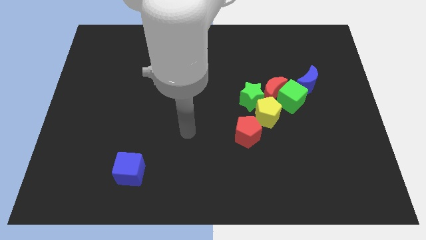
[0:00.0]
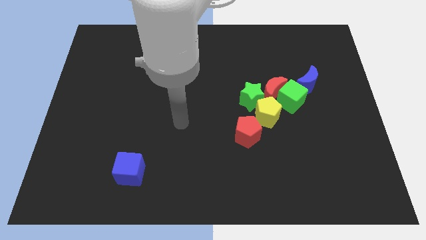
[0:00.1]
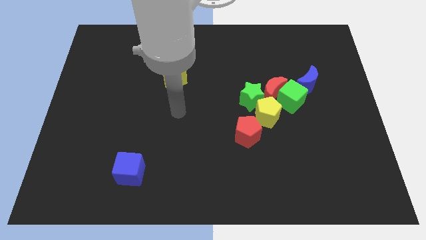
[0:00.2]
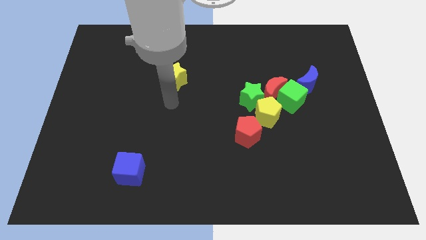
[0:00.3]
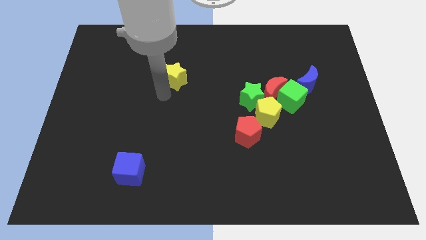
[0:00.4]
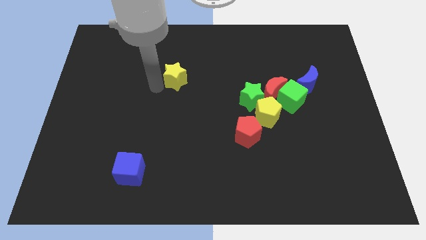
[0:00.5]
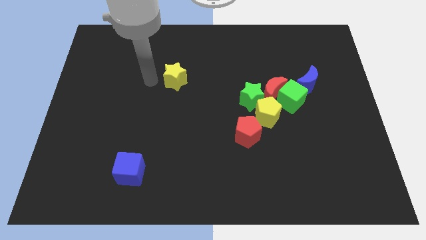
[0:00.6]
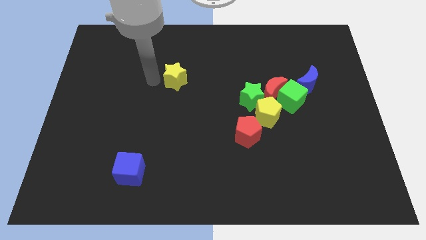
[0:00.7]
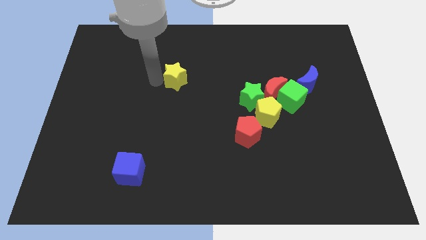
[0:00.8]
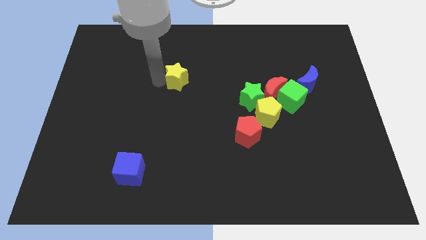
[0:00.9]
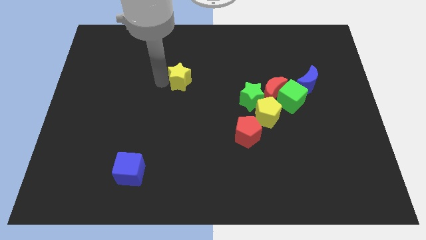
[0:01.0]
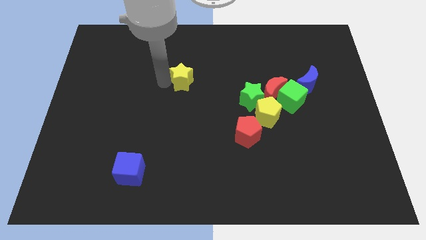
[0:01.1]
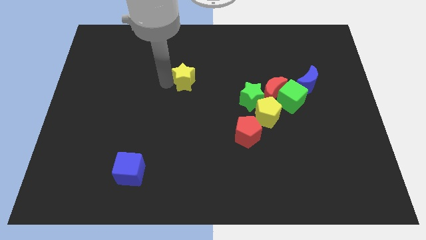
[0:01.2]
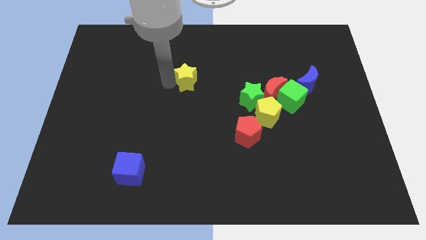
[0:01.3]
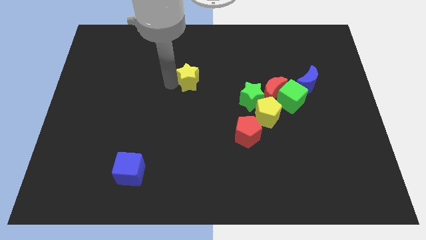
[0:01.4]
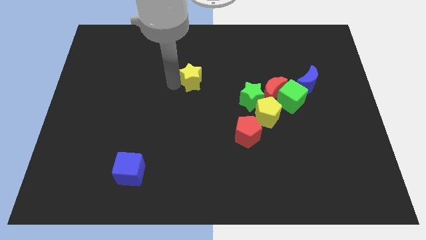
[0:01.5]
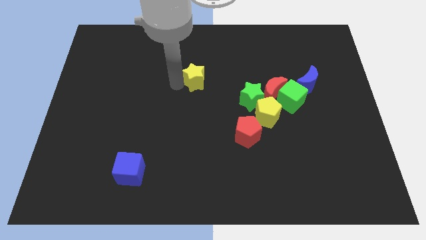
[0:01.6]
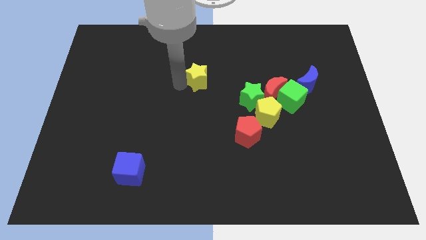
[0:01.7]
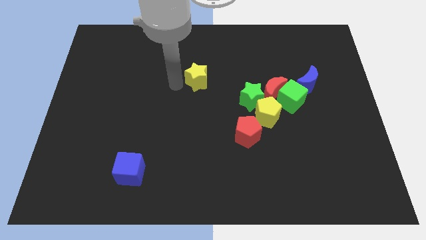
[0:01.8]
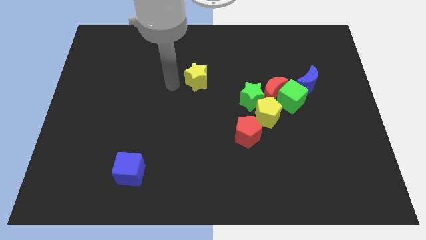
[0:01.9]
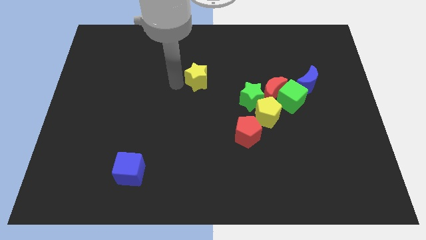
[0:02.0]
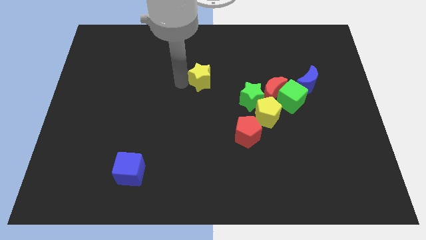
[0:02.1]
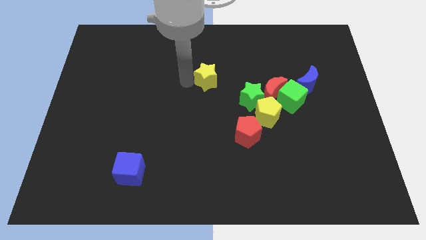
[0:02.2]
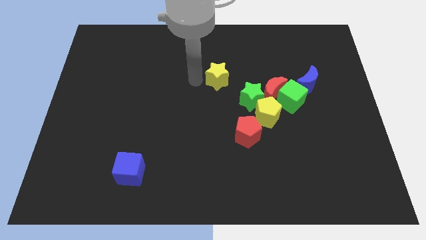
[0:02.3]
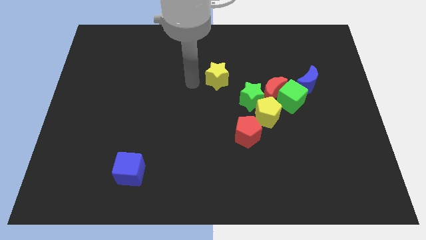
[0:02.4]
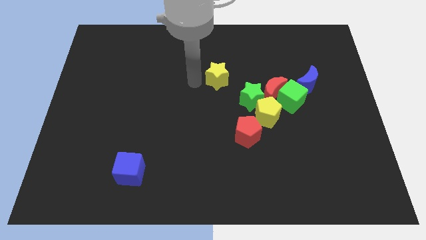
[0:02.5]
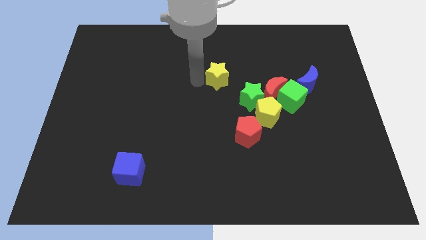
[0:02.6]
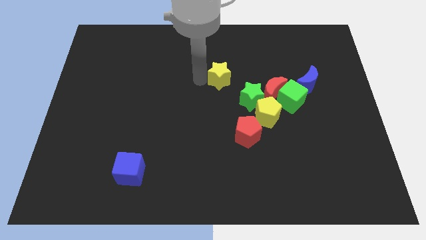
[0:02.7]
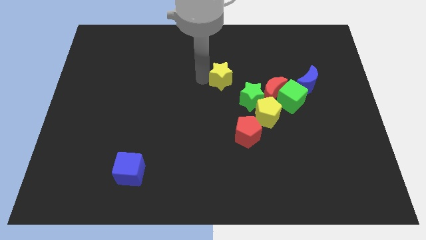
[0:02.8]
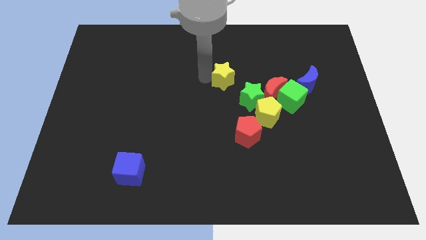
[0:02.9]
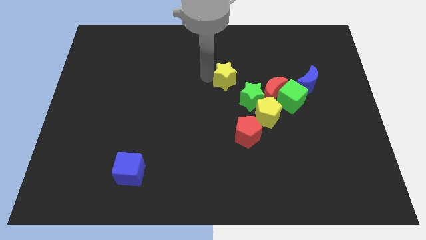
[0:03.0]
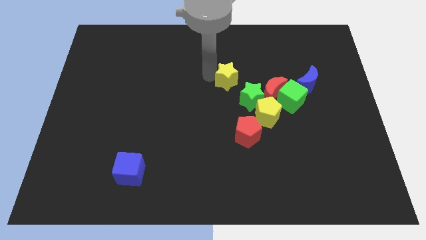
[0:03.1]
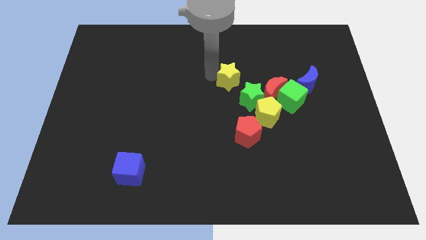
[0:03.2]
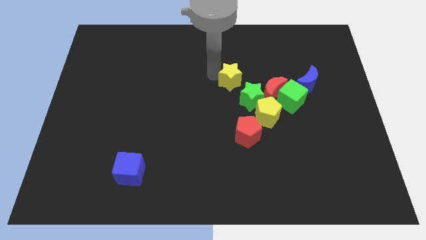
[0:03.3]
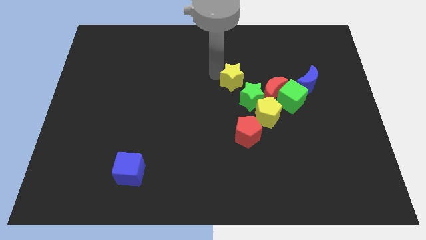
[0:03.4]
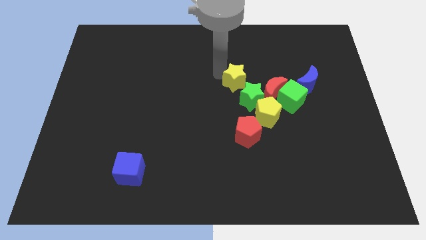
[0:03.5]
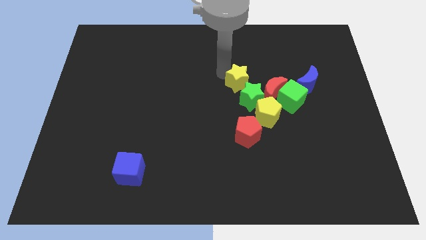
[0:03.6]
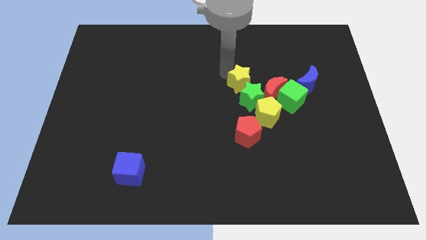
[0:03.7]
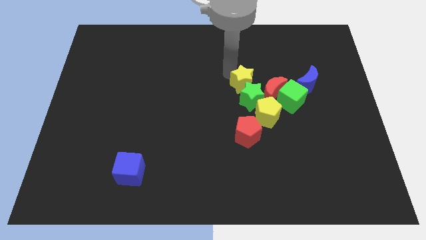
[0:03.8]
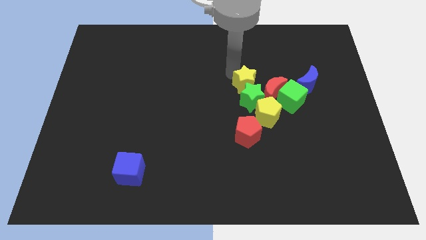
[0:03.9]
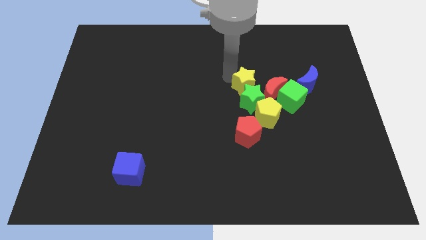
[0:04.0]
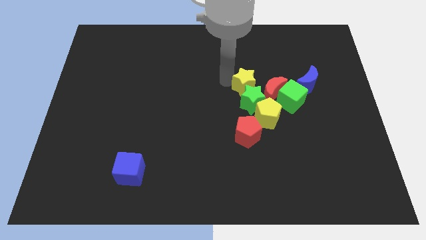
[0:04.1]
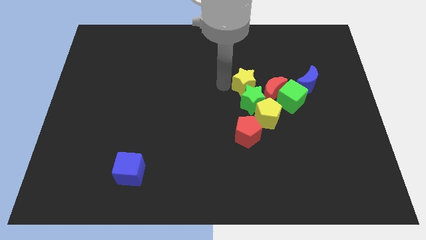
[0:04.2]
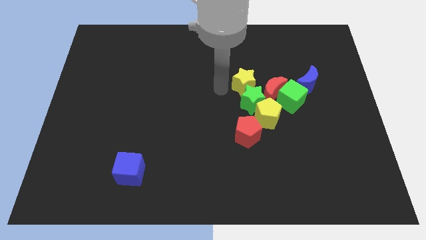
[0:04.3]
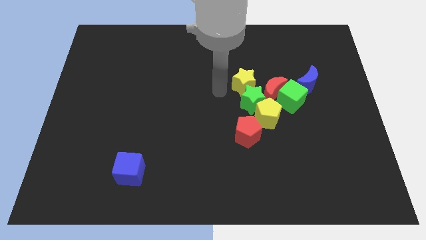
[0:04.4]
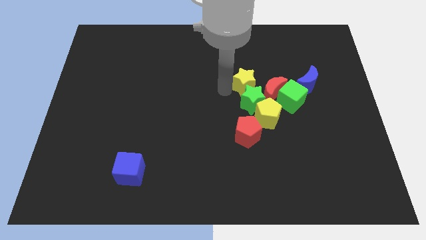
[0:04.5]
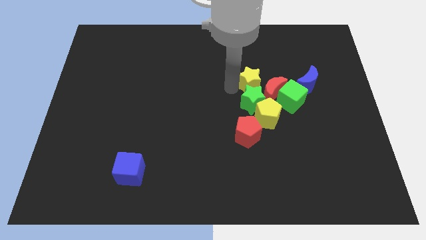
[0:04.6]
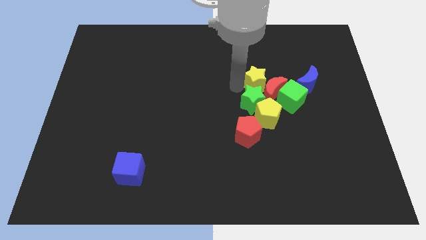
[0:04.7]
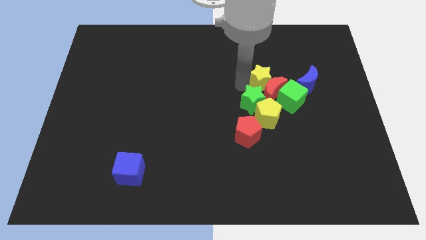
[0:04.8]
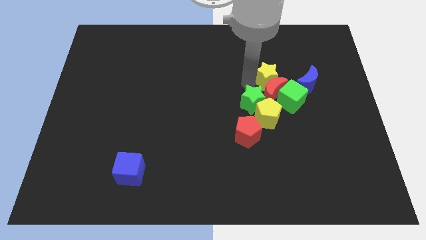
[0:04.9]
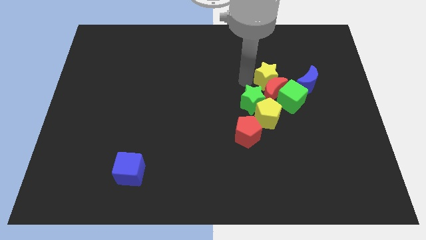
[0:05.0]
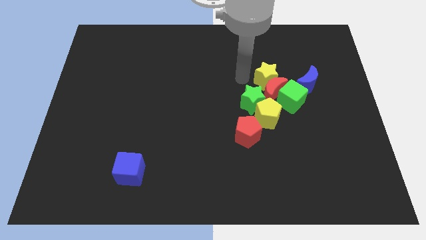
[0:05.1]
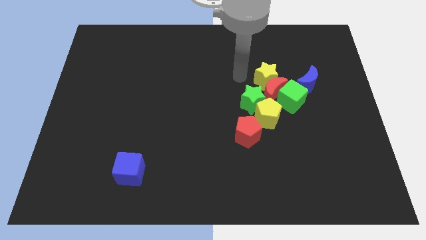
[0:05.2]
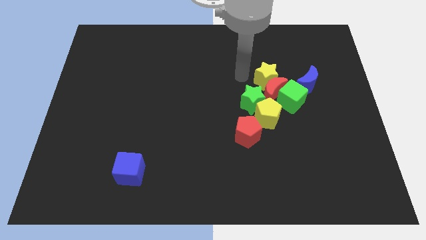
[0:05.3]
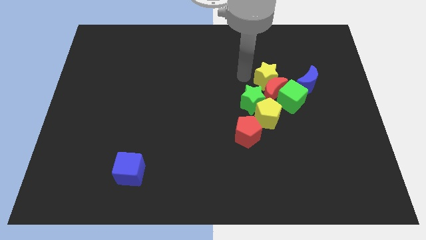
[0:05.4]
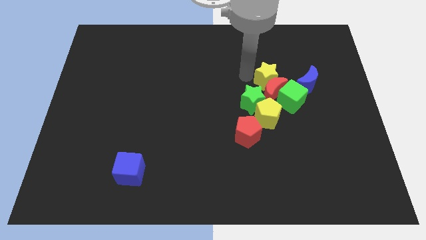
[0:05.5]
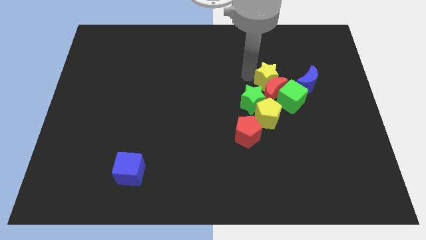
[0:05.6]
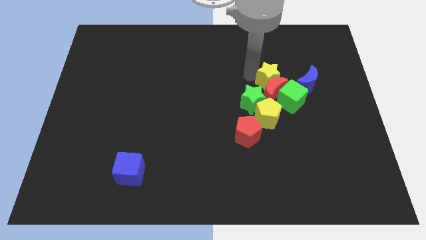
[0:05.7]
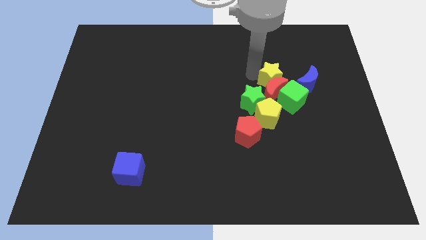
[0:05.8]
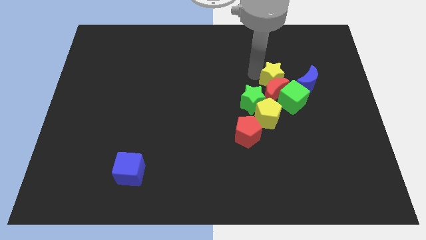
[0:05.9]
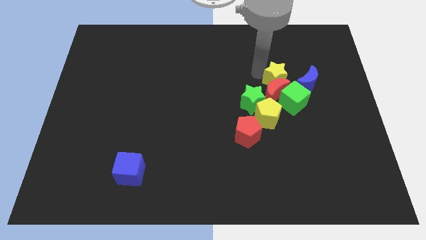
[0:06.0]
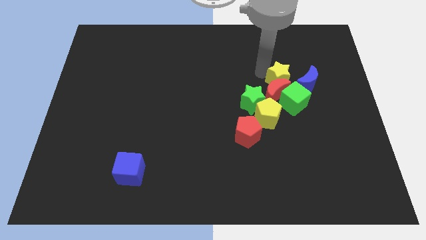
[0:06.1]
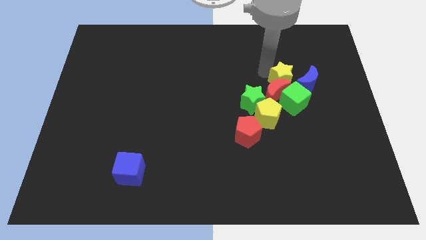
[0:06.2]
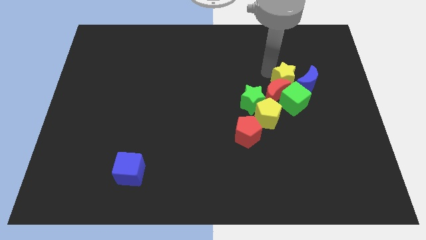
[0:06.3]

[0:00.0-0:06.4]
move the yellow star to the blue moon

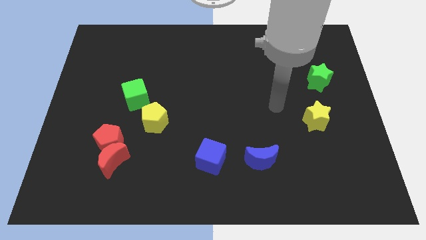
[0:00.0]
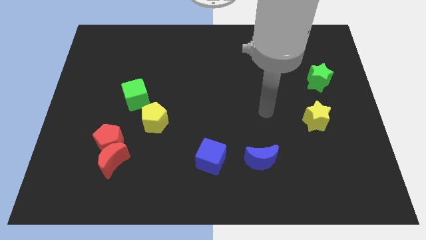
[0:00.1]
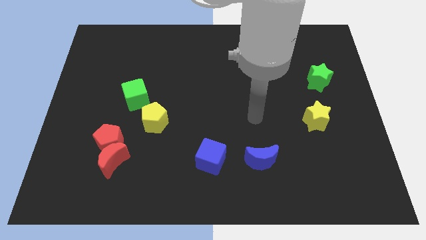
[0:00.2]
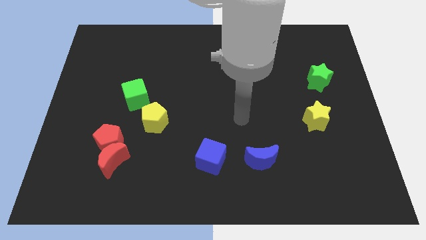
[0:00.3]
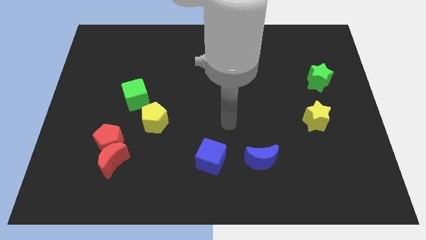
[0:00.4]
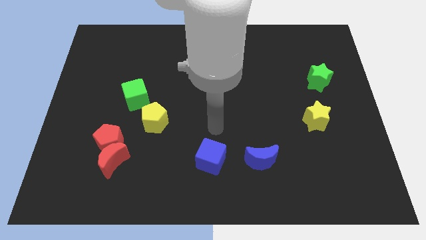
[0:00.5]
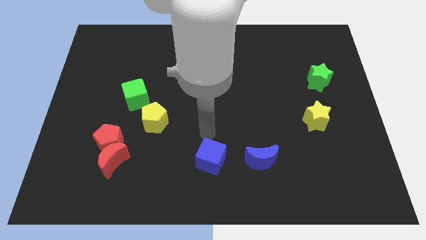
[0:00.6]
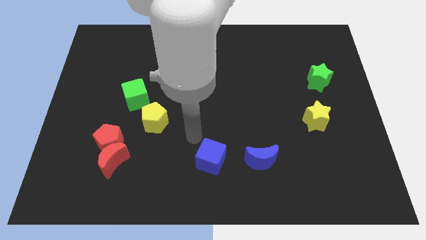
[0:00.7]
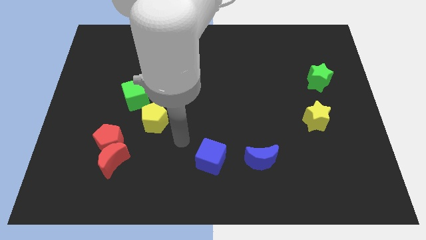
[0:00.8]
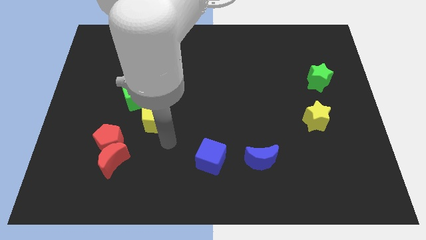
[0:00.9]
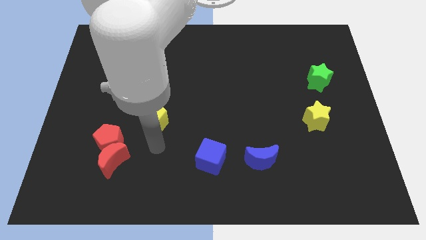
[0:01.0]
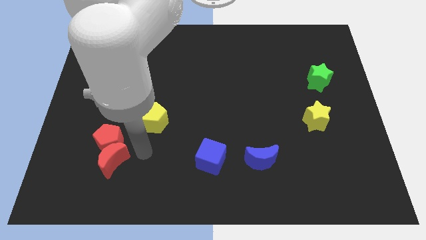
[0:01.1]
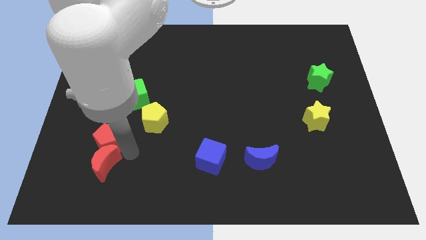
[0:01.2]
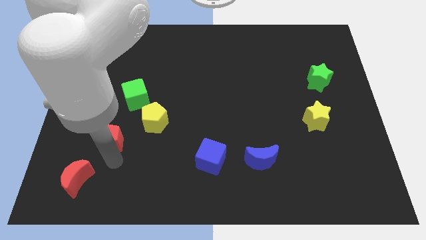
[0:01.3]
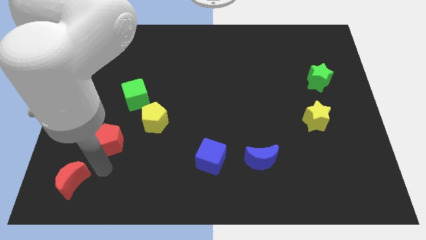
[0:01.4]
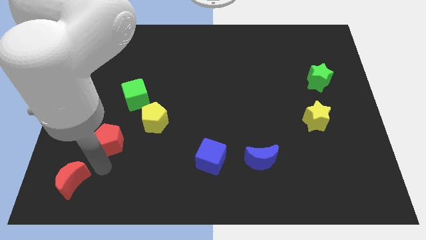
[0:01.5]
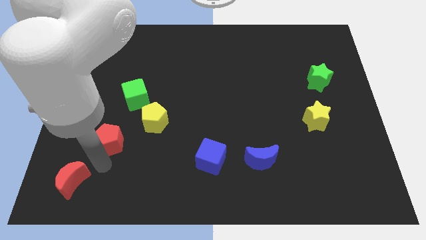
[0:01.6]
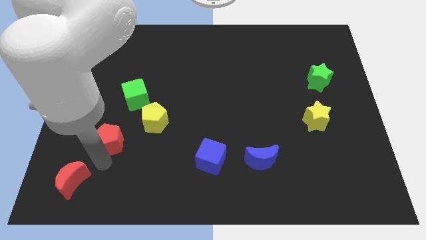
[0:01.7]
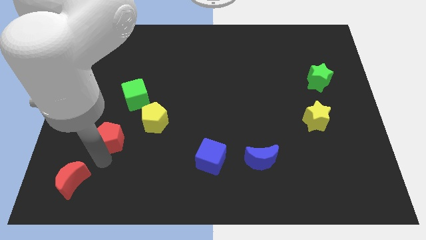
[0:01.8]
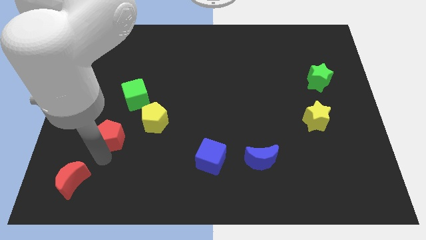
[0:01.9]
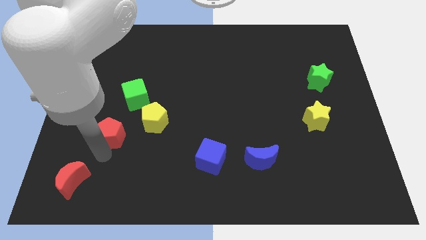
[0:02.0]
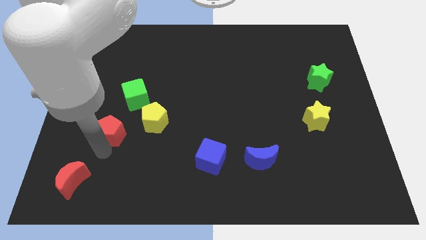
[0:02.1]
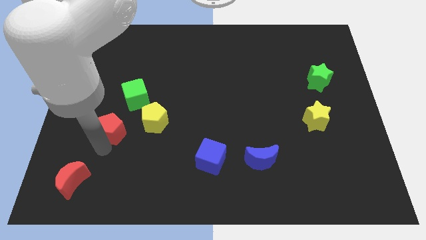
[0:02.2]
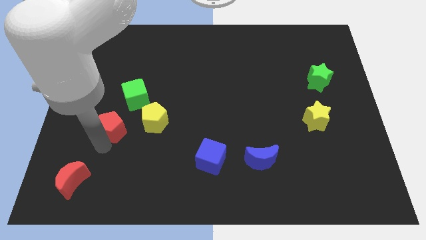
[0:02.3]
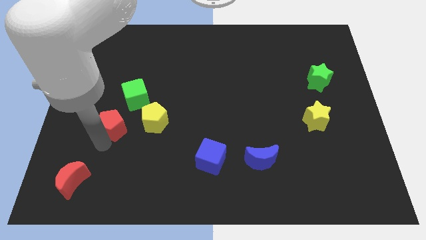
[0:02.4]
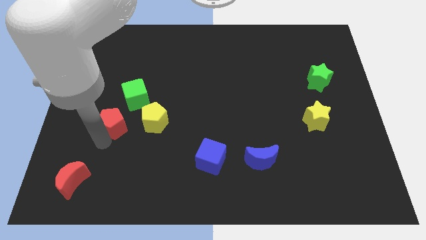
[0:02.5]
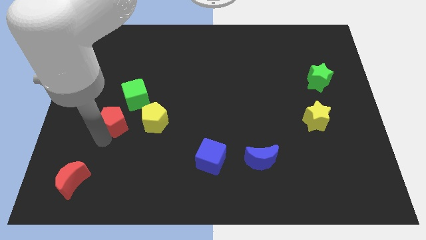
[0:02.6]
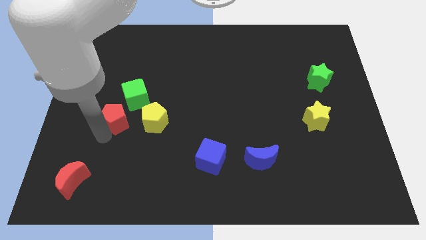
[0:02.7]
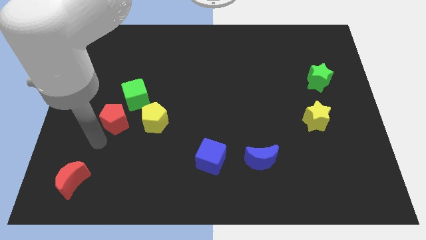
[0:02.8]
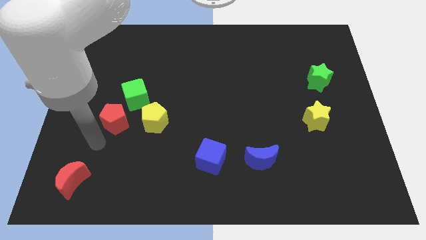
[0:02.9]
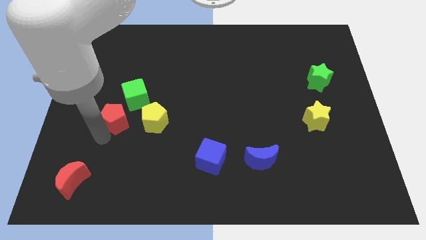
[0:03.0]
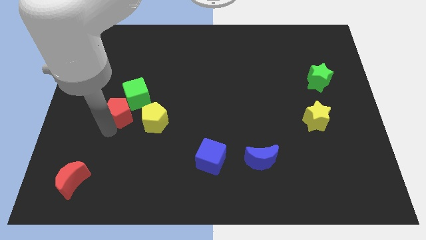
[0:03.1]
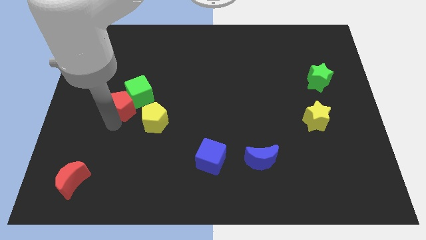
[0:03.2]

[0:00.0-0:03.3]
slide the red pentagon close to the green cube
